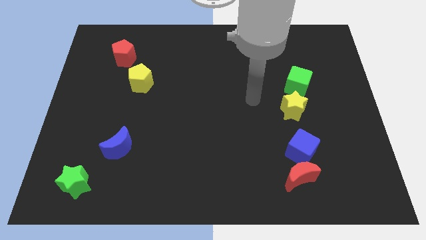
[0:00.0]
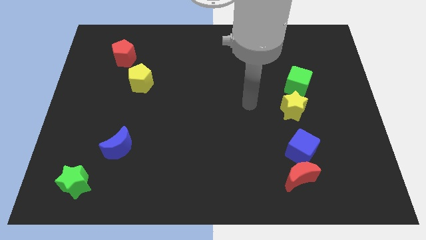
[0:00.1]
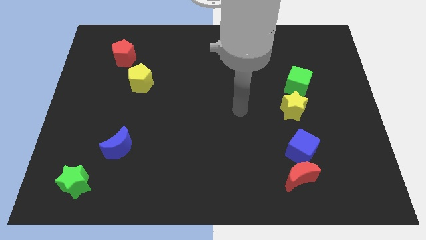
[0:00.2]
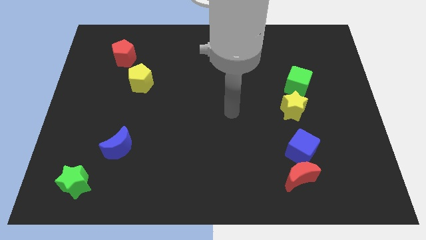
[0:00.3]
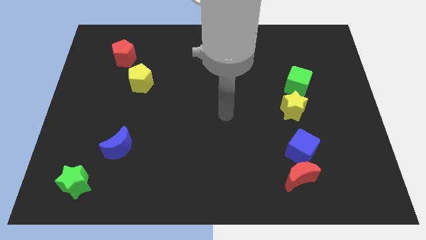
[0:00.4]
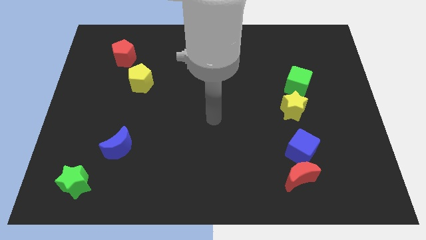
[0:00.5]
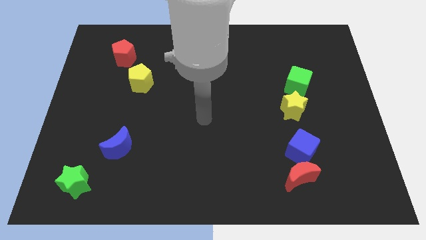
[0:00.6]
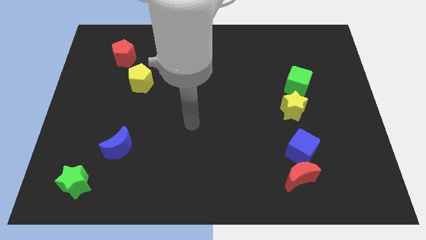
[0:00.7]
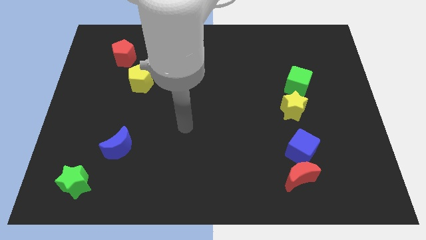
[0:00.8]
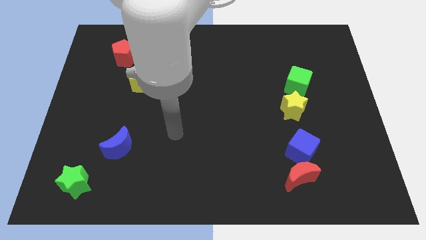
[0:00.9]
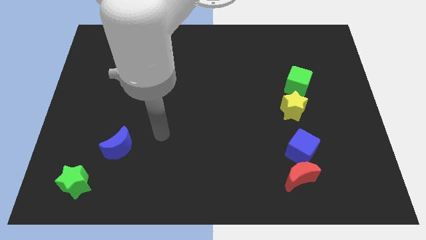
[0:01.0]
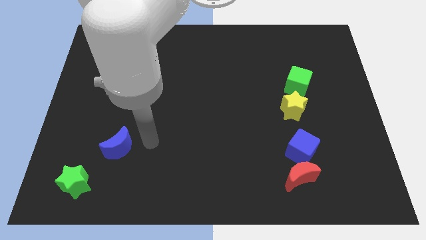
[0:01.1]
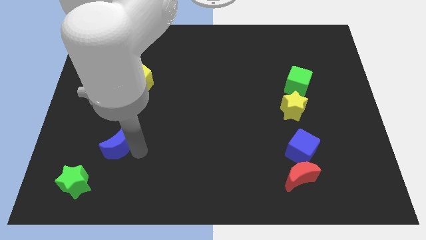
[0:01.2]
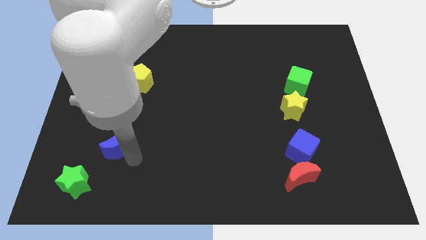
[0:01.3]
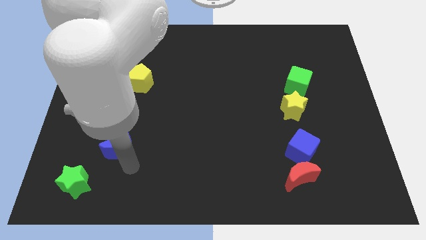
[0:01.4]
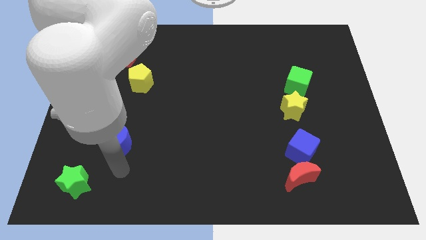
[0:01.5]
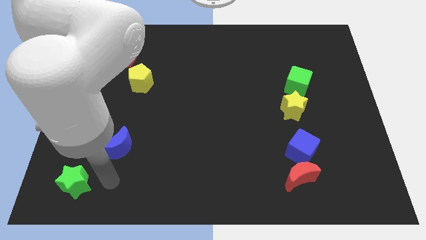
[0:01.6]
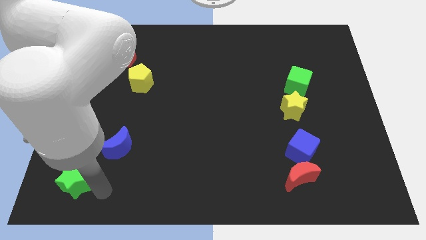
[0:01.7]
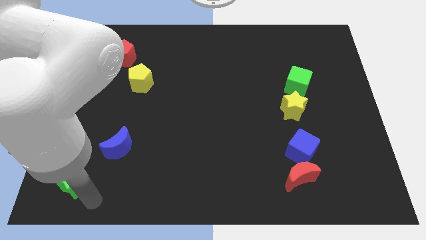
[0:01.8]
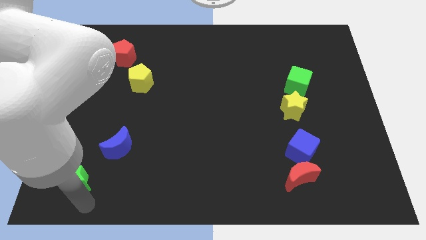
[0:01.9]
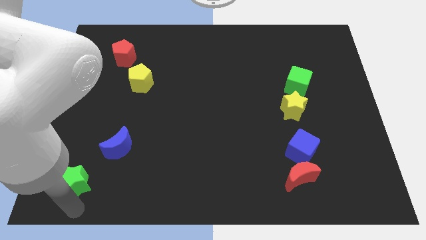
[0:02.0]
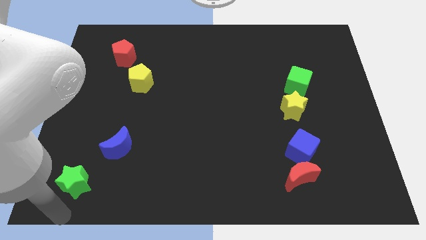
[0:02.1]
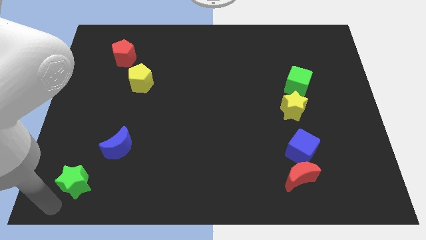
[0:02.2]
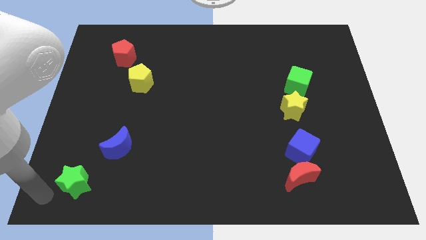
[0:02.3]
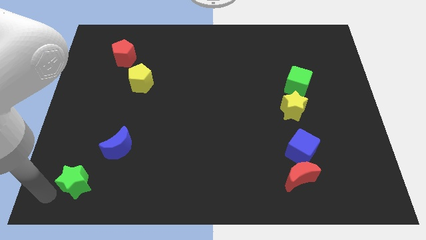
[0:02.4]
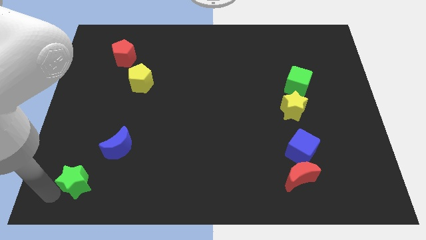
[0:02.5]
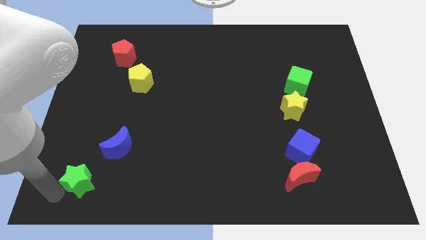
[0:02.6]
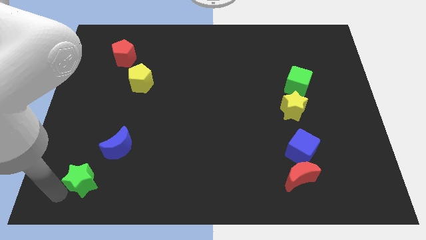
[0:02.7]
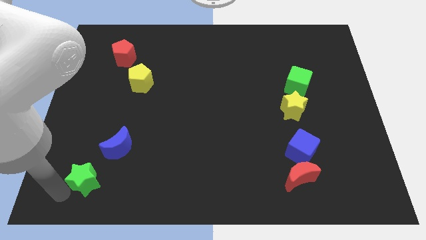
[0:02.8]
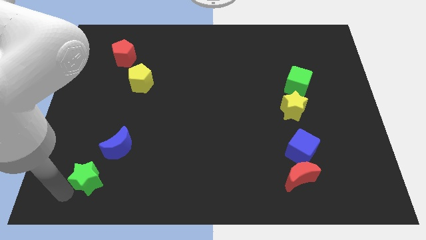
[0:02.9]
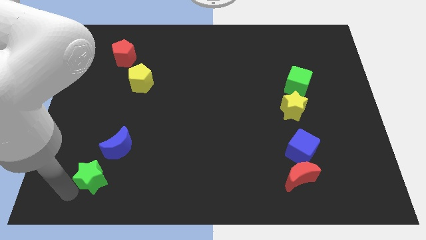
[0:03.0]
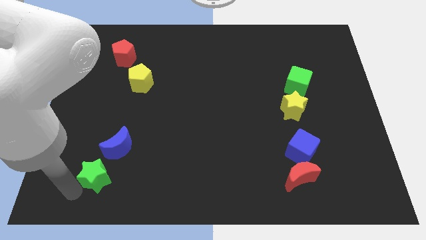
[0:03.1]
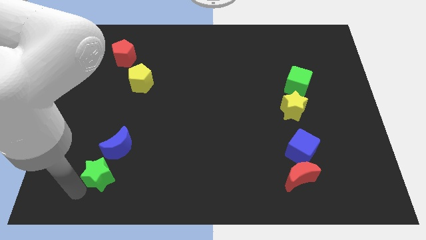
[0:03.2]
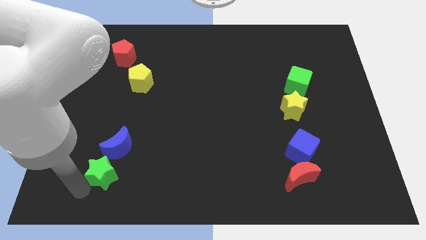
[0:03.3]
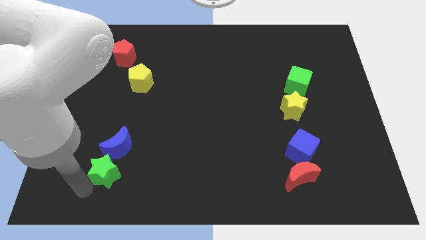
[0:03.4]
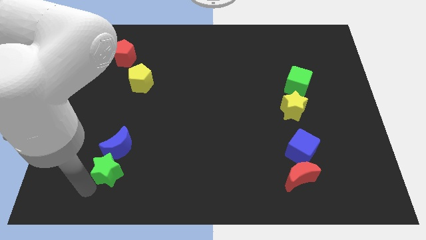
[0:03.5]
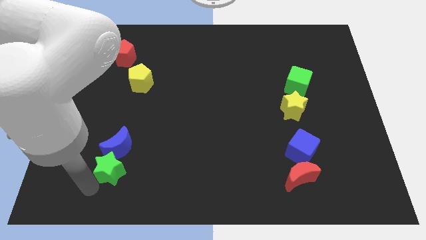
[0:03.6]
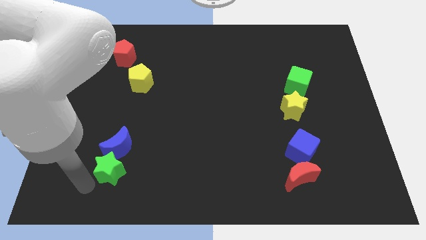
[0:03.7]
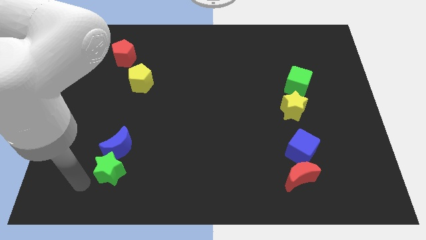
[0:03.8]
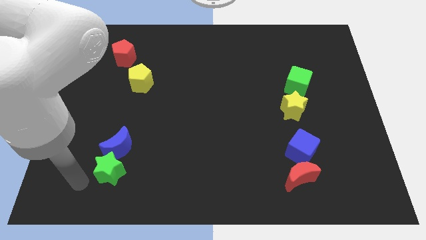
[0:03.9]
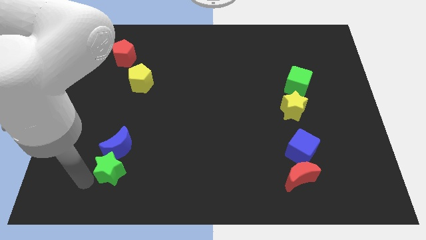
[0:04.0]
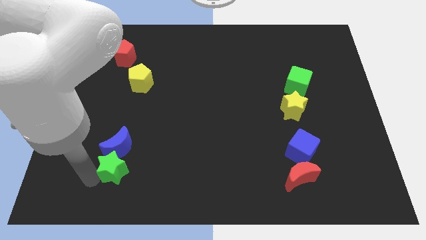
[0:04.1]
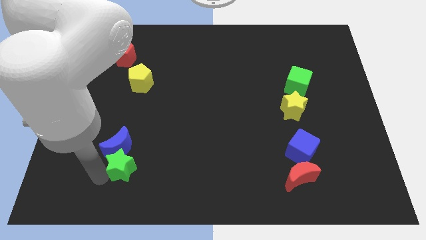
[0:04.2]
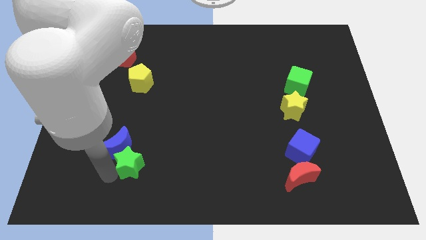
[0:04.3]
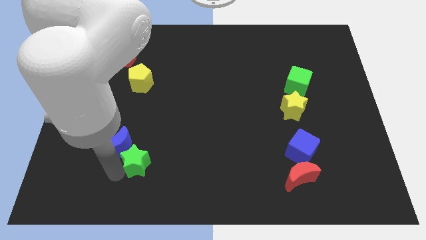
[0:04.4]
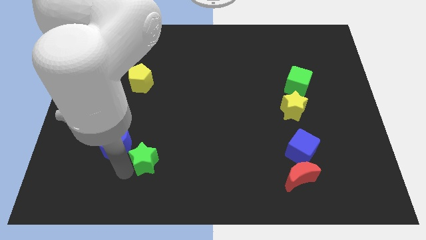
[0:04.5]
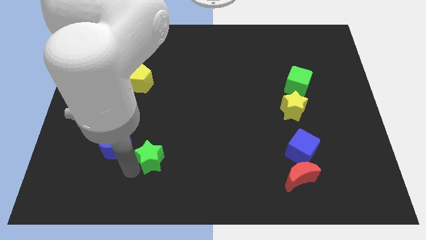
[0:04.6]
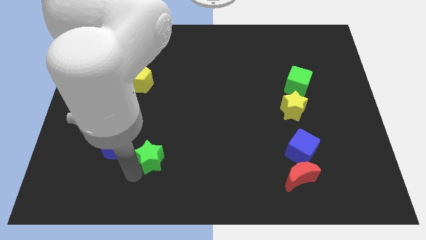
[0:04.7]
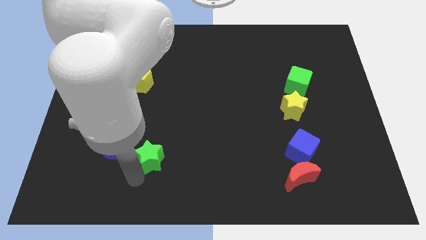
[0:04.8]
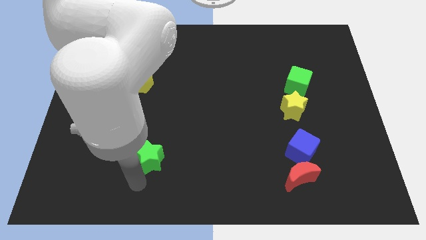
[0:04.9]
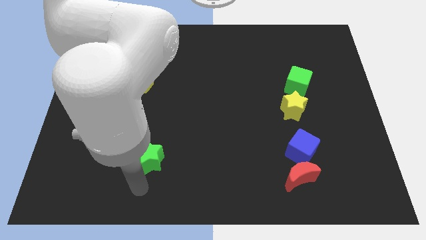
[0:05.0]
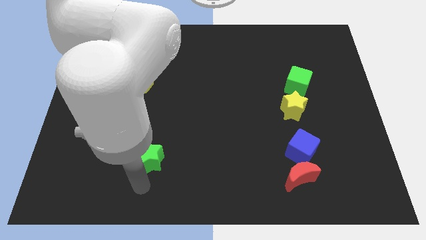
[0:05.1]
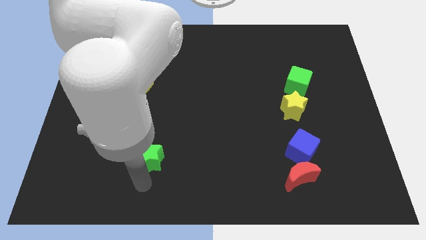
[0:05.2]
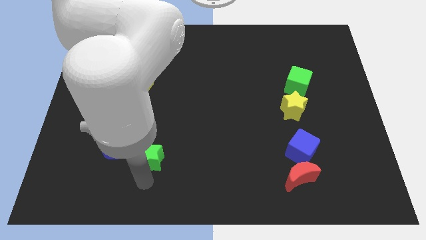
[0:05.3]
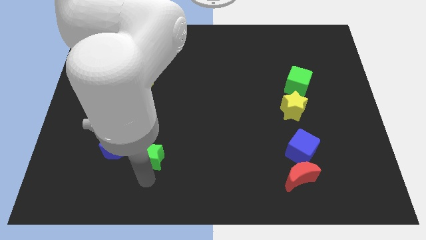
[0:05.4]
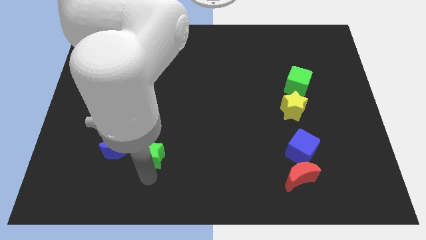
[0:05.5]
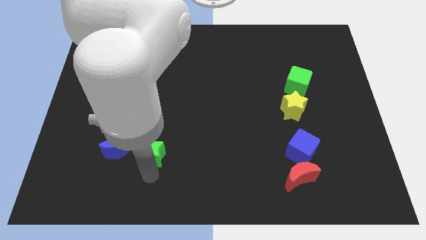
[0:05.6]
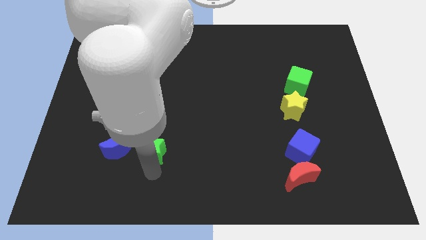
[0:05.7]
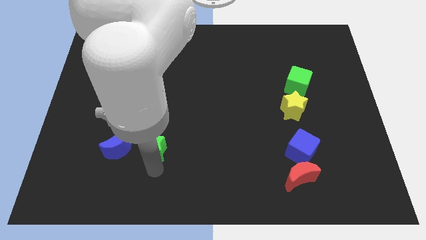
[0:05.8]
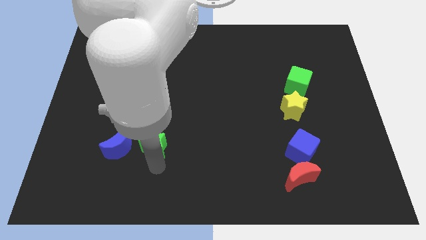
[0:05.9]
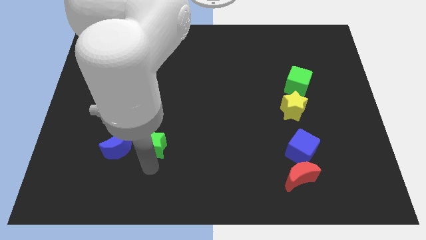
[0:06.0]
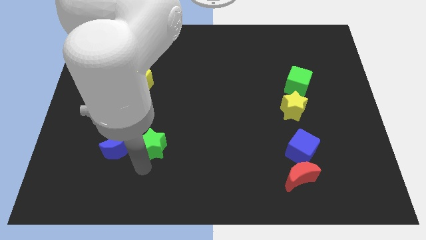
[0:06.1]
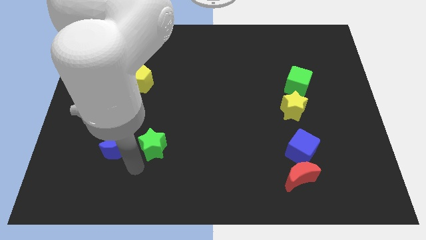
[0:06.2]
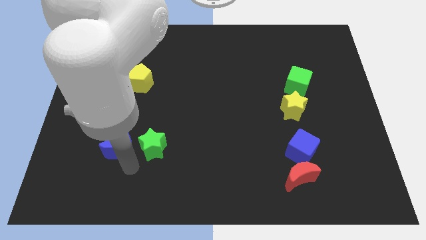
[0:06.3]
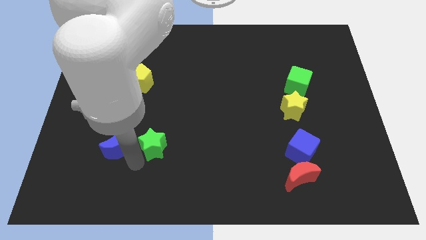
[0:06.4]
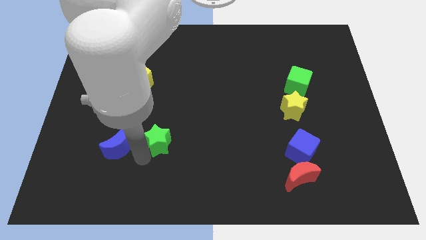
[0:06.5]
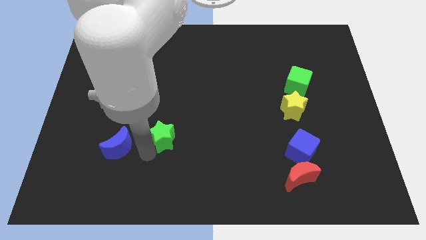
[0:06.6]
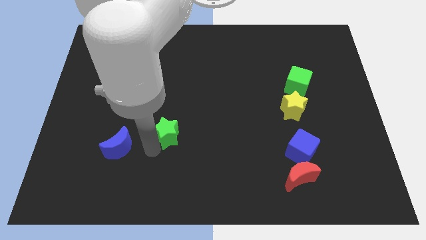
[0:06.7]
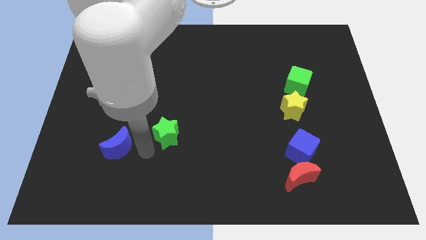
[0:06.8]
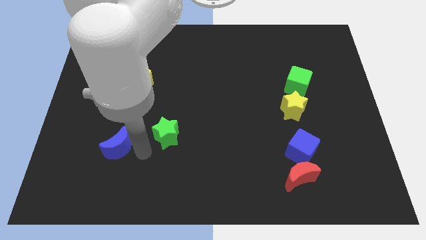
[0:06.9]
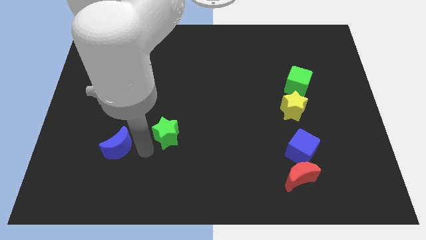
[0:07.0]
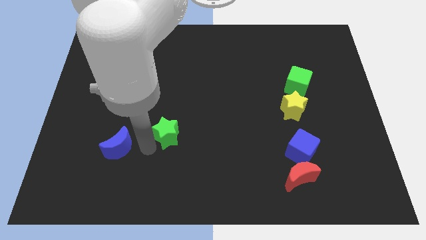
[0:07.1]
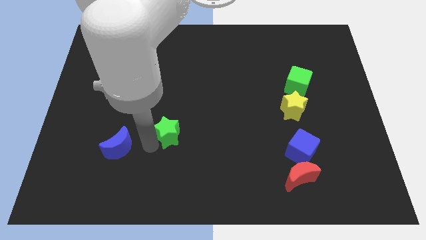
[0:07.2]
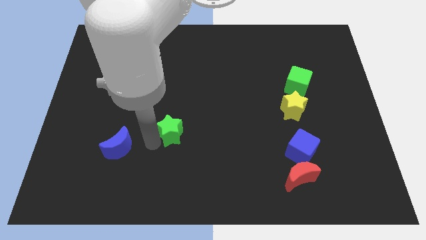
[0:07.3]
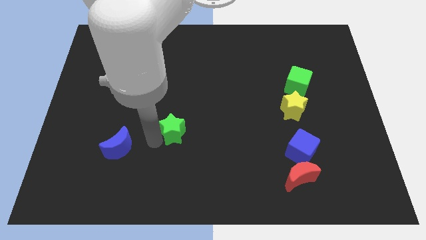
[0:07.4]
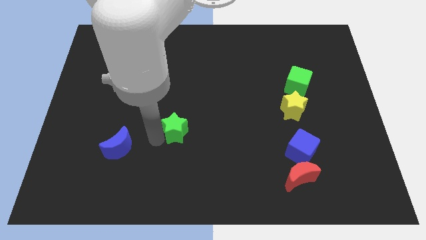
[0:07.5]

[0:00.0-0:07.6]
push the green star to the middle
